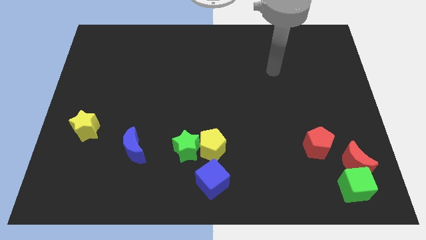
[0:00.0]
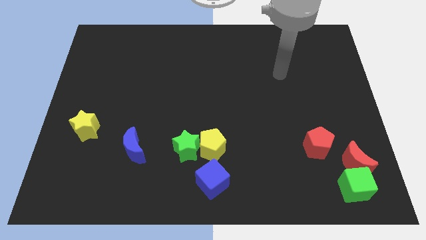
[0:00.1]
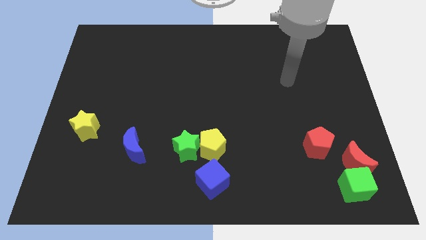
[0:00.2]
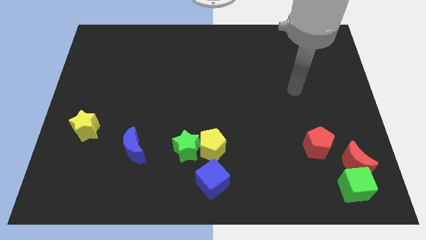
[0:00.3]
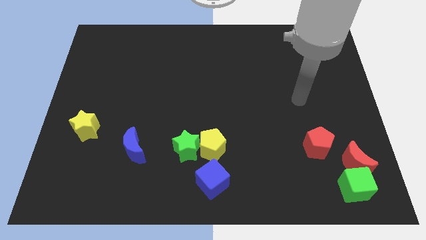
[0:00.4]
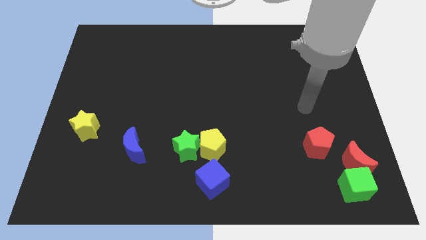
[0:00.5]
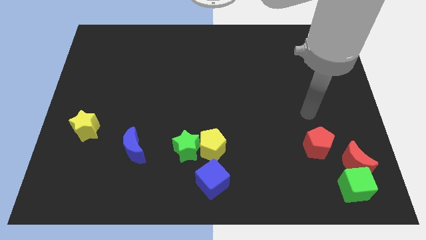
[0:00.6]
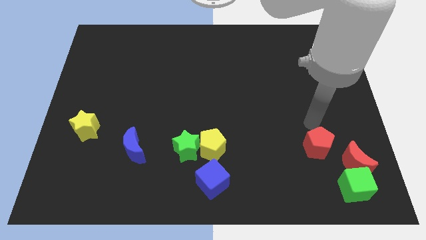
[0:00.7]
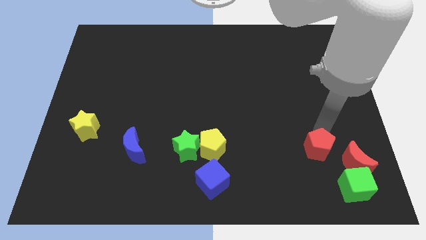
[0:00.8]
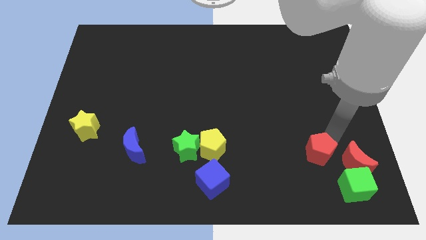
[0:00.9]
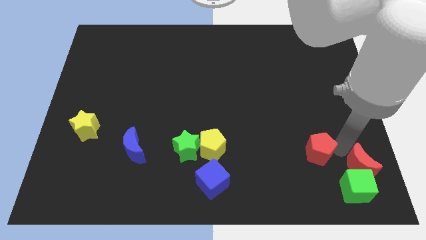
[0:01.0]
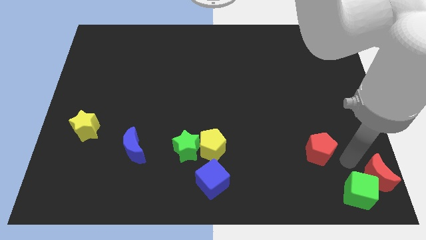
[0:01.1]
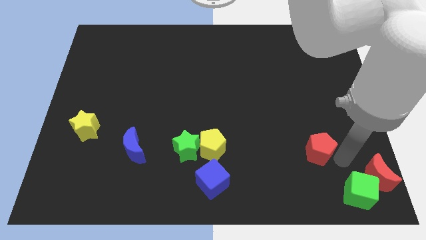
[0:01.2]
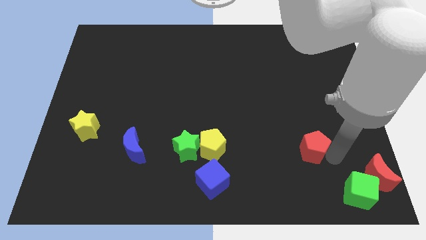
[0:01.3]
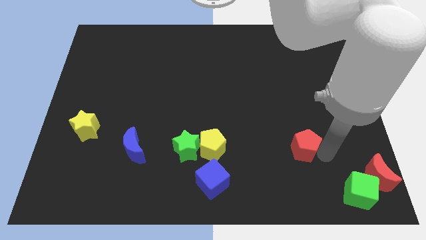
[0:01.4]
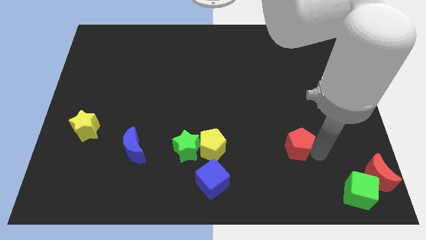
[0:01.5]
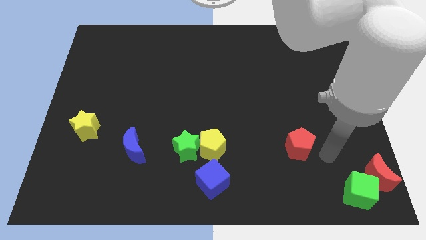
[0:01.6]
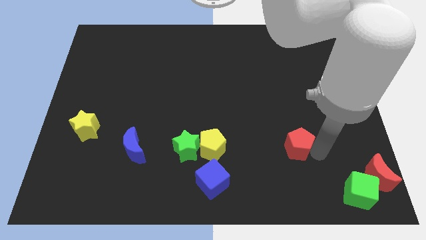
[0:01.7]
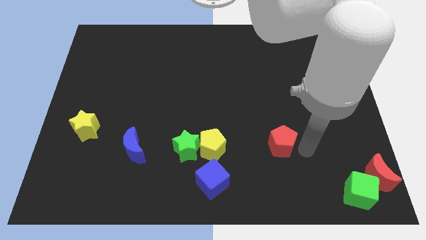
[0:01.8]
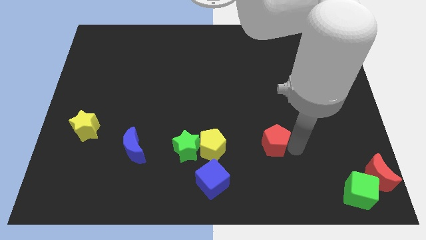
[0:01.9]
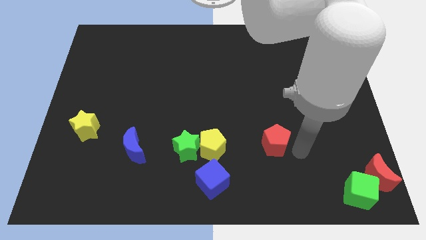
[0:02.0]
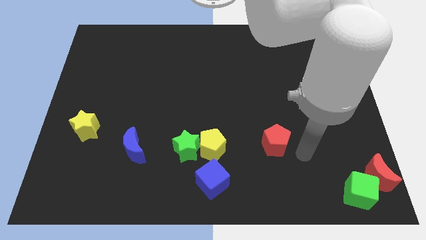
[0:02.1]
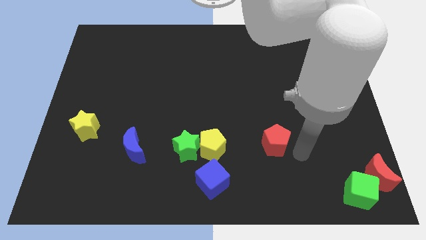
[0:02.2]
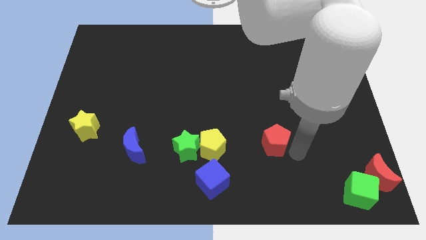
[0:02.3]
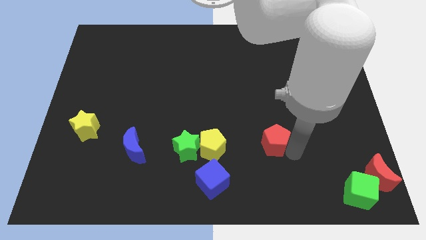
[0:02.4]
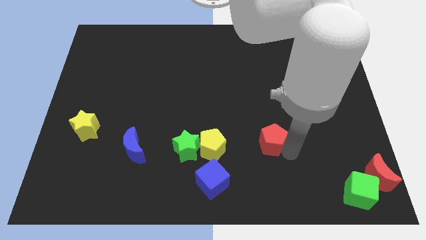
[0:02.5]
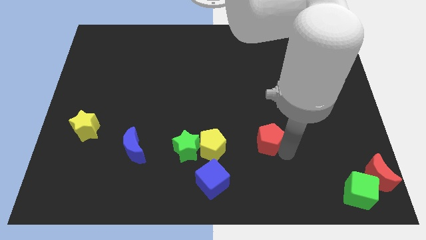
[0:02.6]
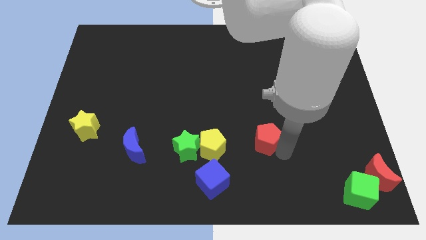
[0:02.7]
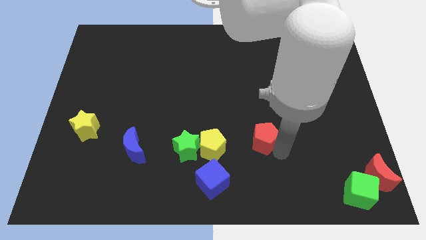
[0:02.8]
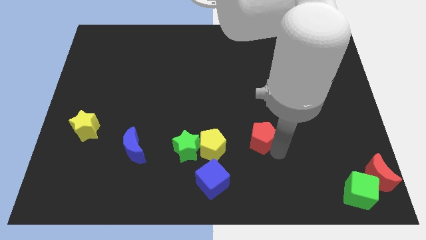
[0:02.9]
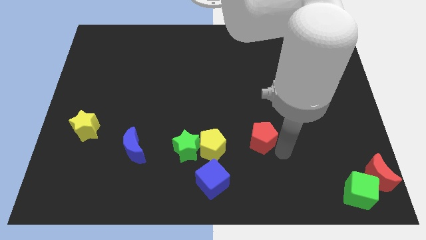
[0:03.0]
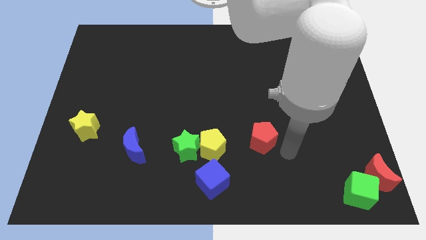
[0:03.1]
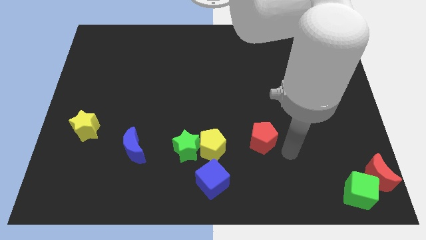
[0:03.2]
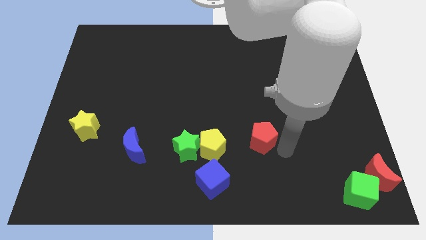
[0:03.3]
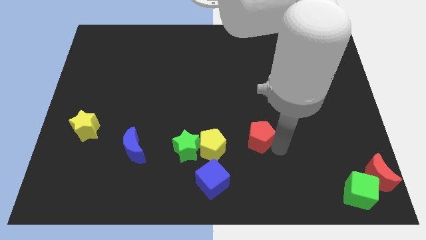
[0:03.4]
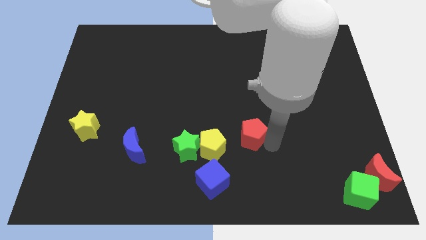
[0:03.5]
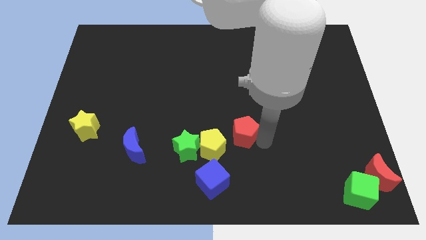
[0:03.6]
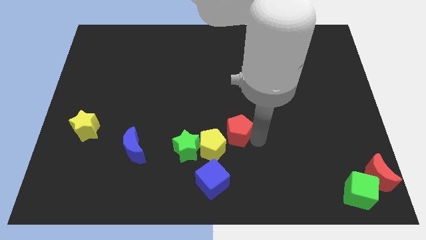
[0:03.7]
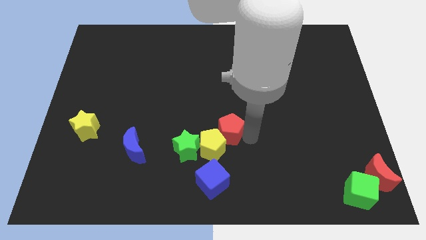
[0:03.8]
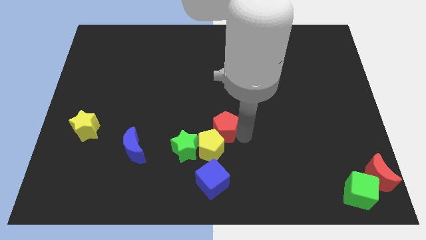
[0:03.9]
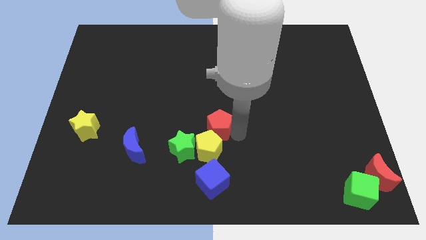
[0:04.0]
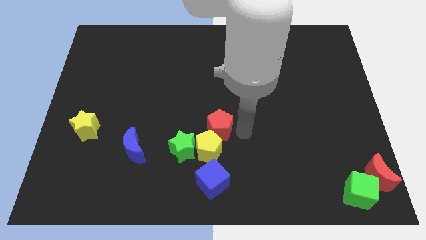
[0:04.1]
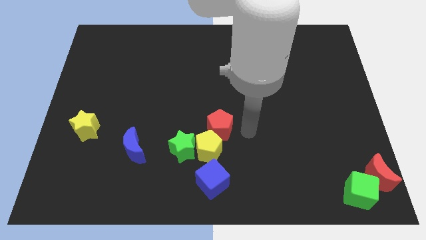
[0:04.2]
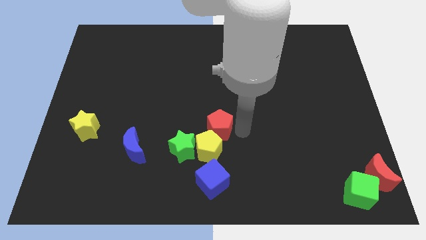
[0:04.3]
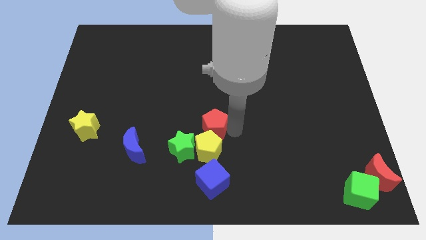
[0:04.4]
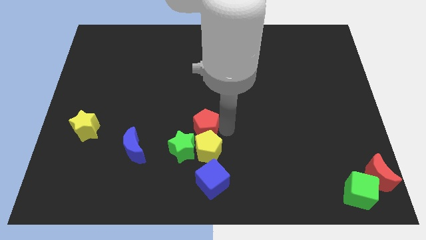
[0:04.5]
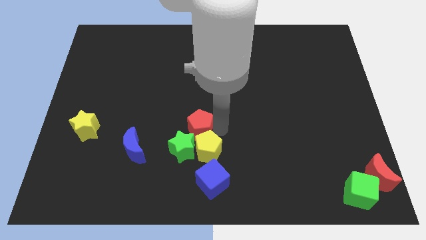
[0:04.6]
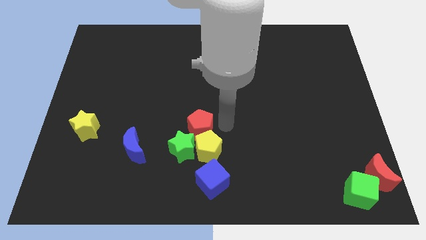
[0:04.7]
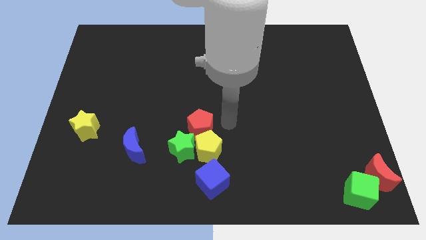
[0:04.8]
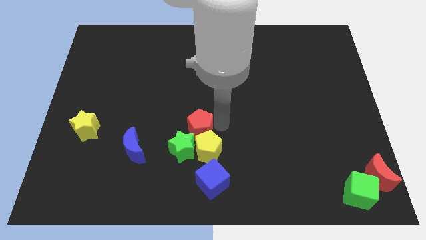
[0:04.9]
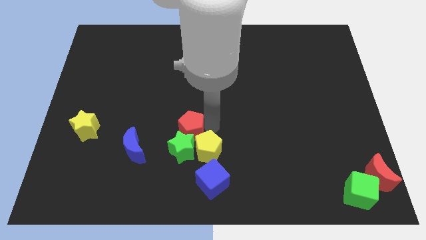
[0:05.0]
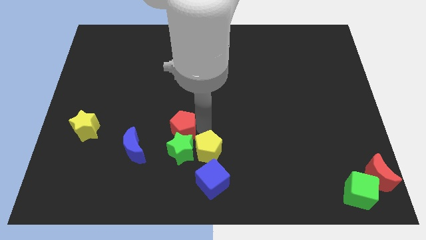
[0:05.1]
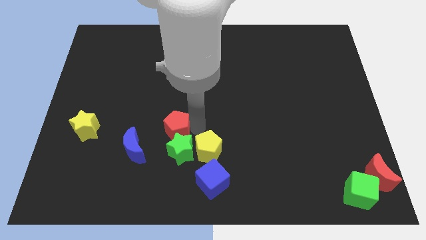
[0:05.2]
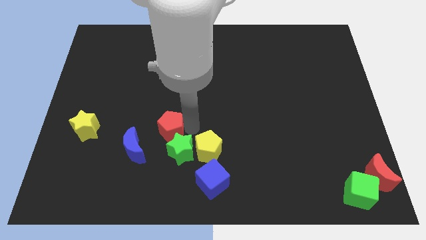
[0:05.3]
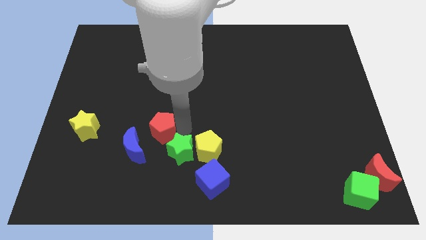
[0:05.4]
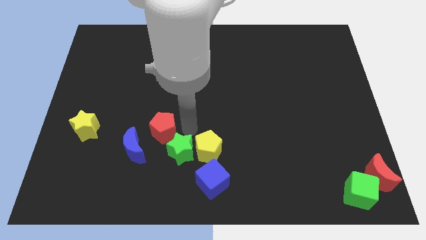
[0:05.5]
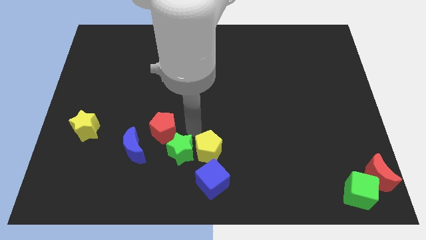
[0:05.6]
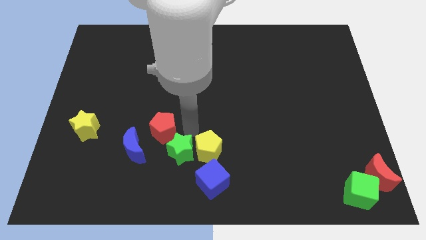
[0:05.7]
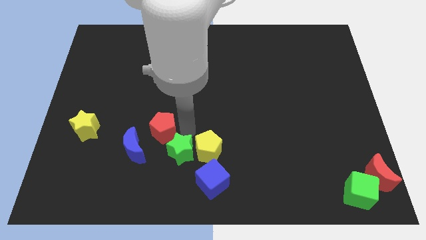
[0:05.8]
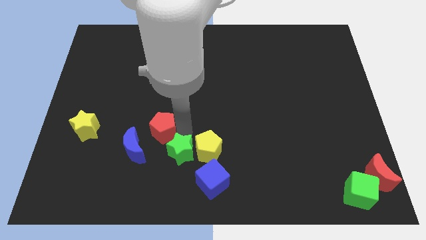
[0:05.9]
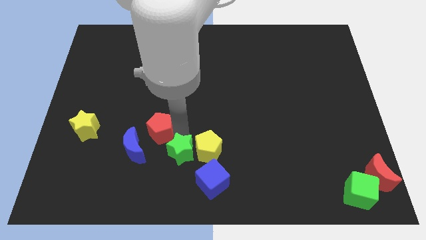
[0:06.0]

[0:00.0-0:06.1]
slide the red pentagon just left of the green star

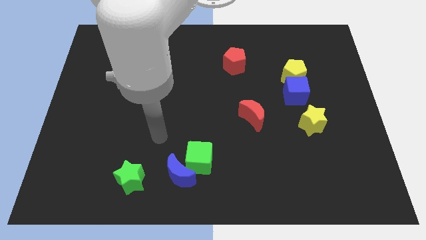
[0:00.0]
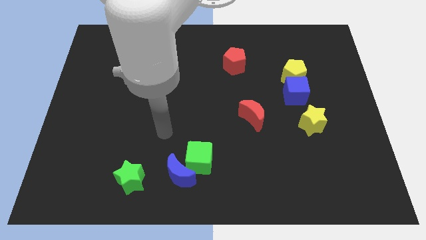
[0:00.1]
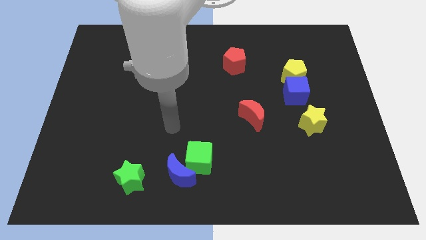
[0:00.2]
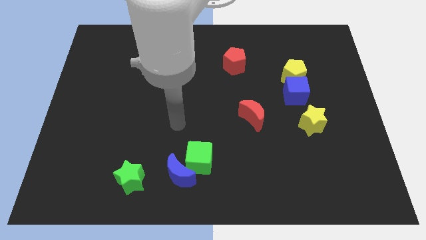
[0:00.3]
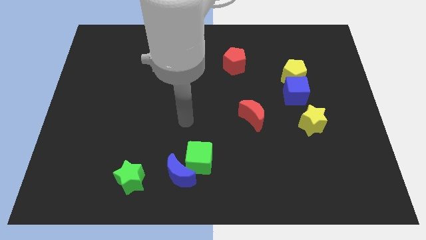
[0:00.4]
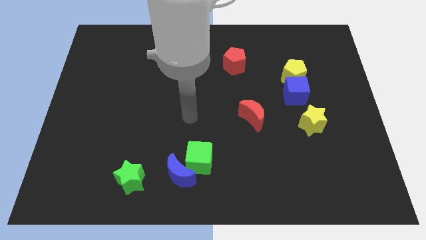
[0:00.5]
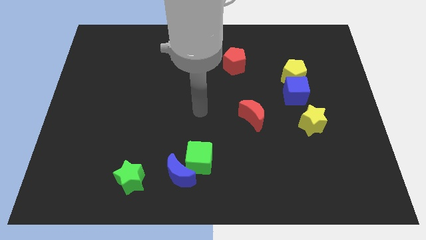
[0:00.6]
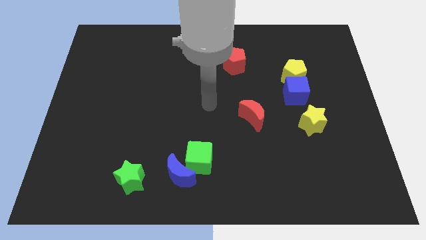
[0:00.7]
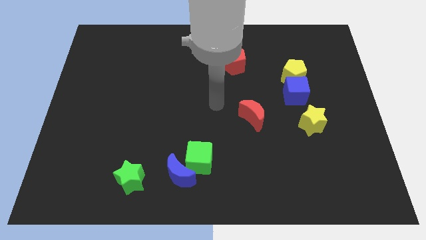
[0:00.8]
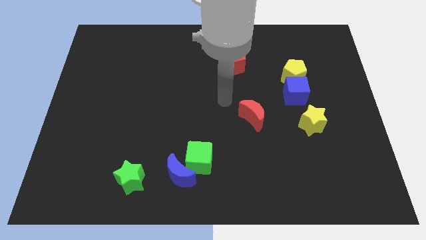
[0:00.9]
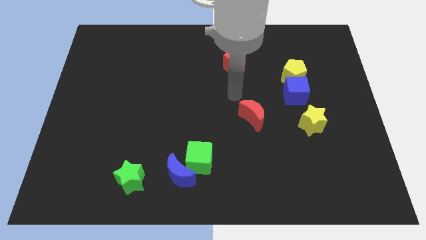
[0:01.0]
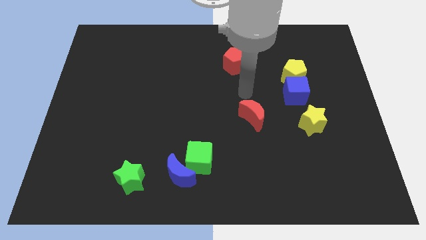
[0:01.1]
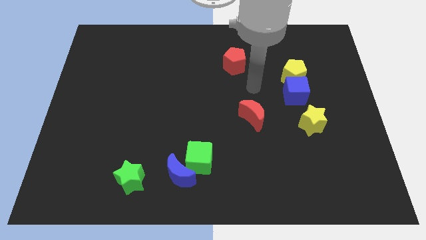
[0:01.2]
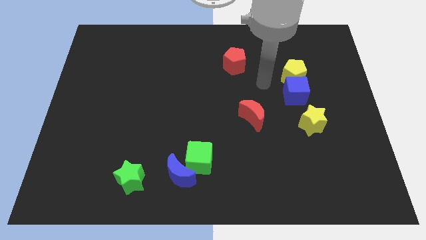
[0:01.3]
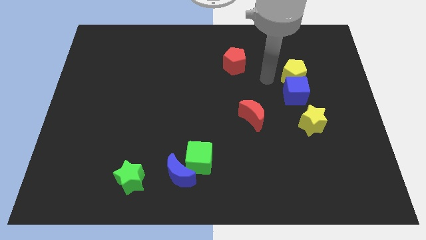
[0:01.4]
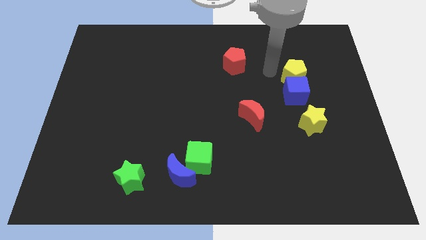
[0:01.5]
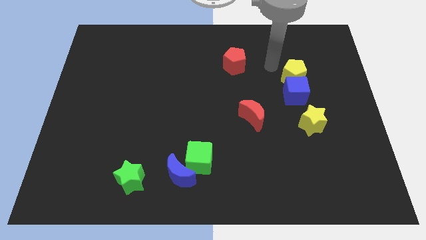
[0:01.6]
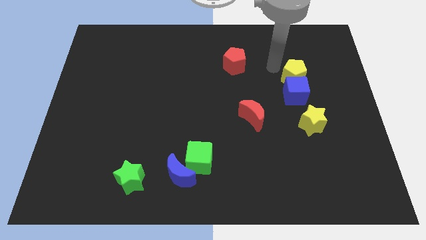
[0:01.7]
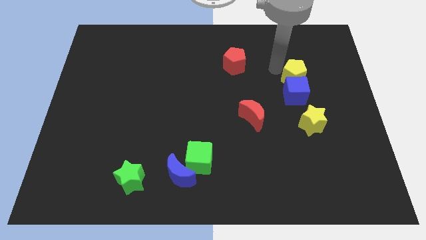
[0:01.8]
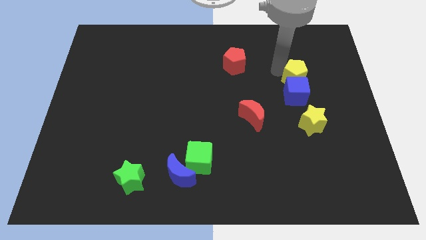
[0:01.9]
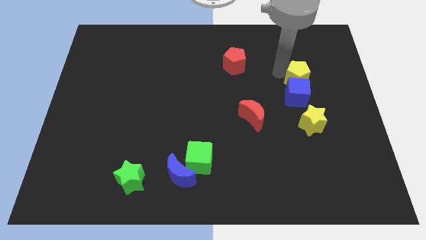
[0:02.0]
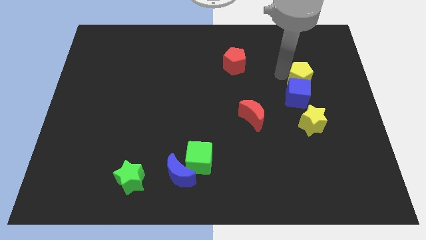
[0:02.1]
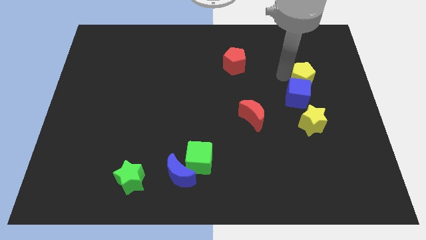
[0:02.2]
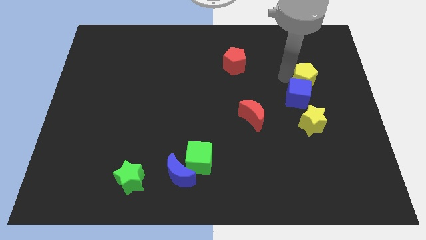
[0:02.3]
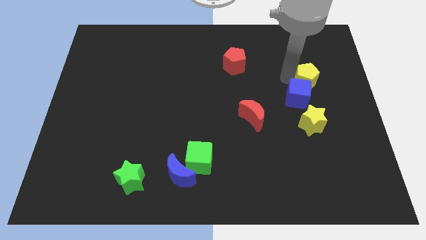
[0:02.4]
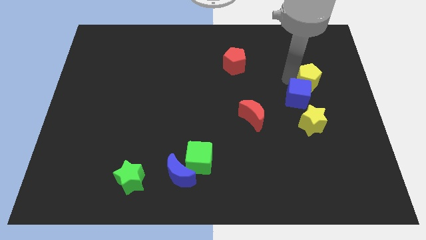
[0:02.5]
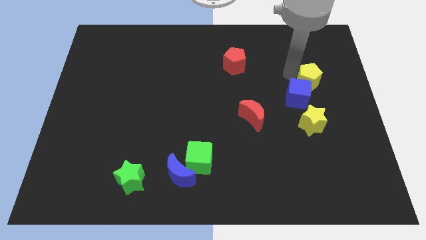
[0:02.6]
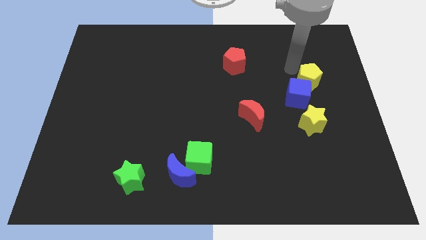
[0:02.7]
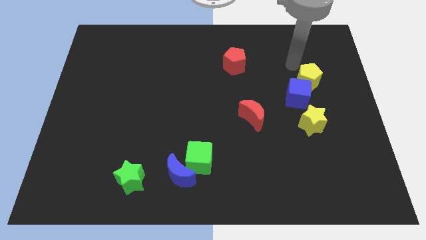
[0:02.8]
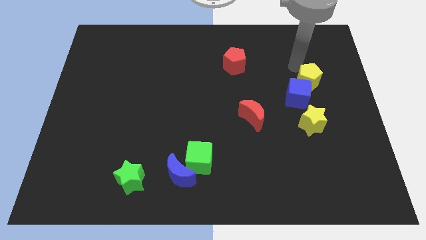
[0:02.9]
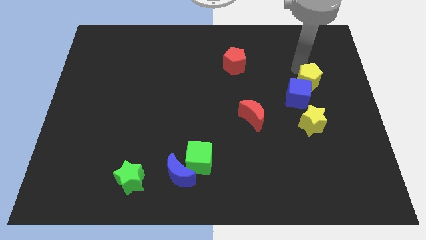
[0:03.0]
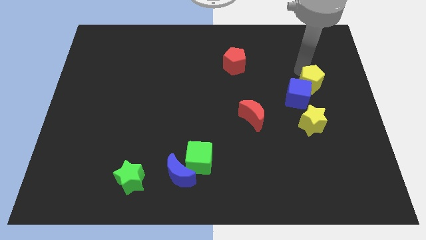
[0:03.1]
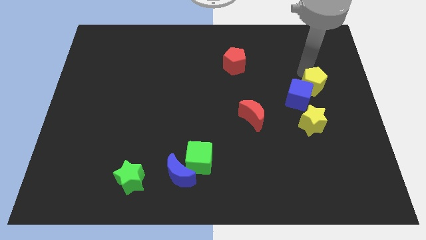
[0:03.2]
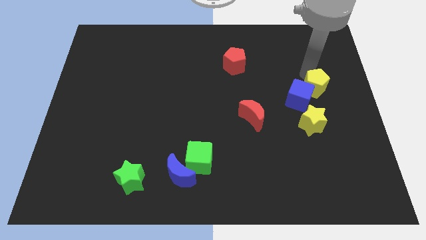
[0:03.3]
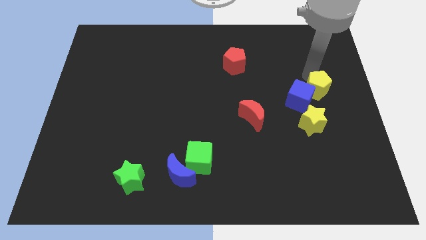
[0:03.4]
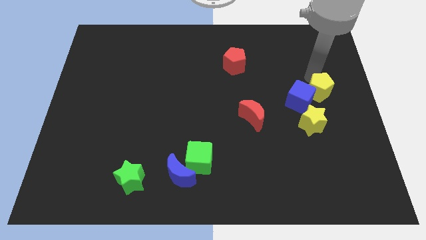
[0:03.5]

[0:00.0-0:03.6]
move the yellow pentagon to the top right side of the yellow star
